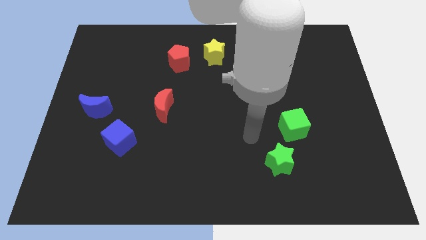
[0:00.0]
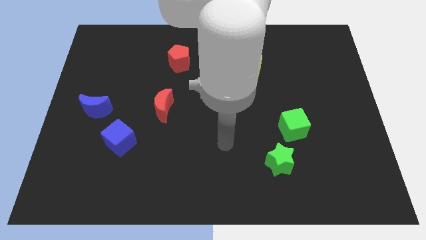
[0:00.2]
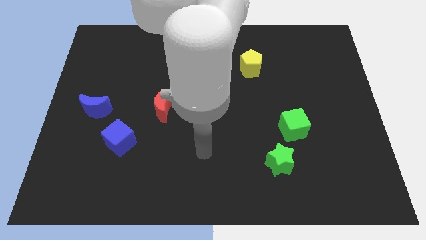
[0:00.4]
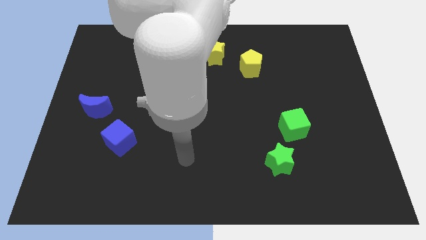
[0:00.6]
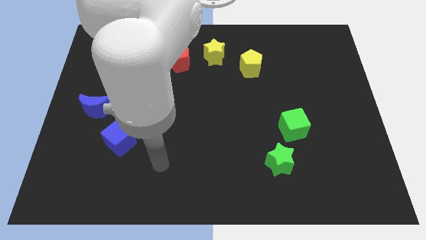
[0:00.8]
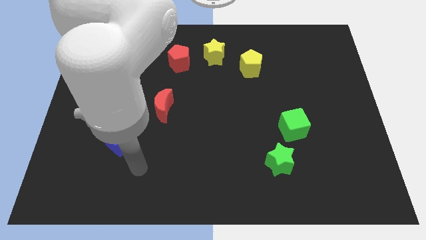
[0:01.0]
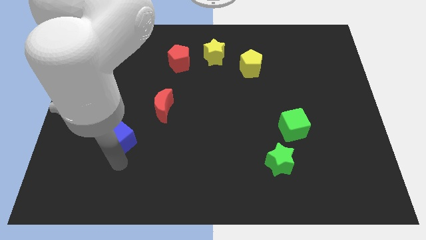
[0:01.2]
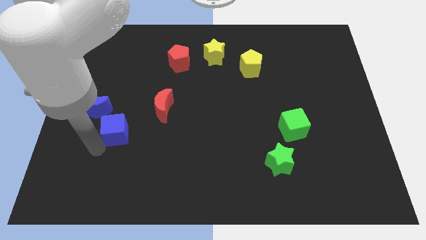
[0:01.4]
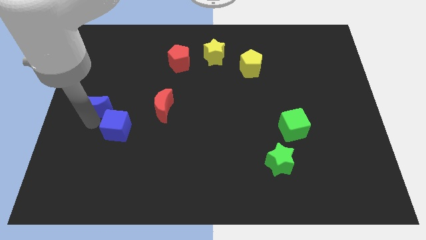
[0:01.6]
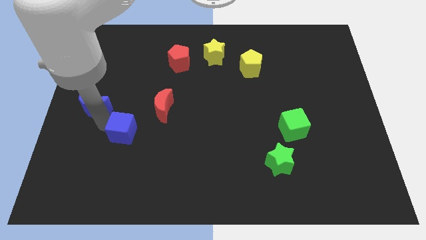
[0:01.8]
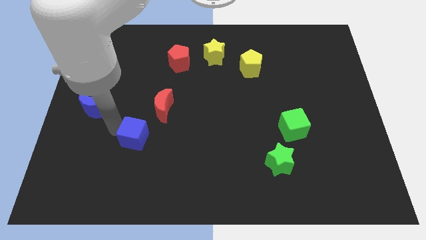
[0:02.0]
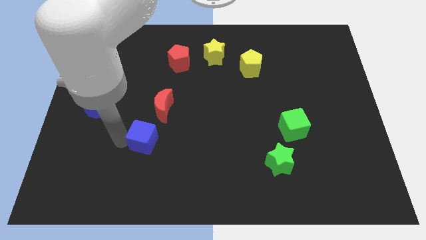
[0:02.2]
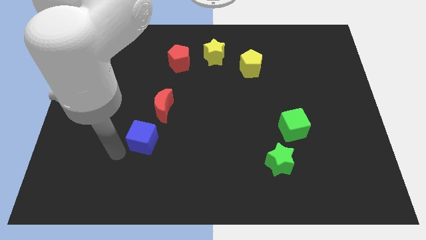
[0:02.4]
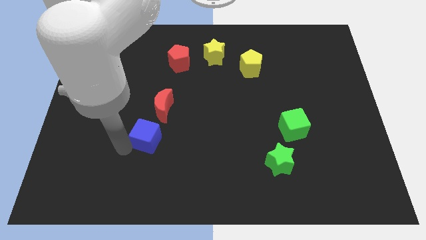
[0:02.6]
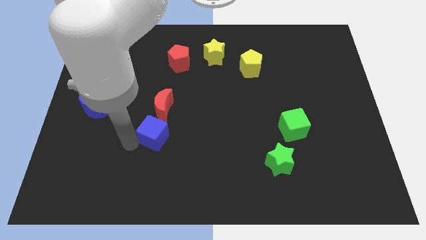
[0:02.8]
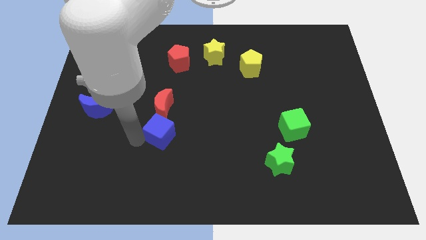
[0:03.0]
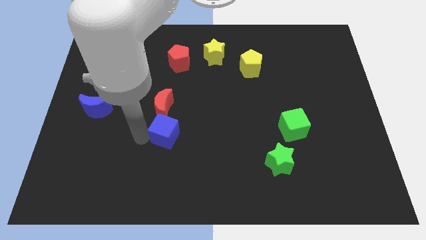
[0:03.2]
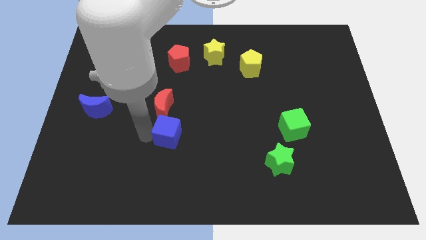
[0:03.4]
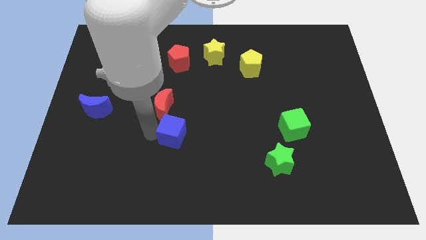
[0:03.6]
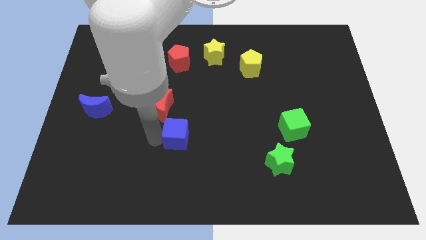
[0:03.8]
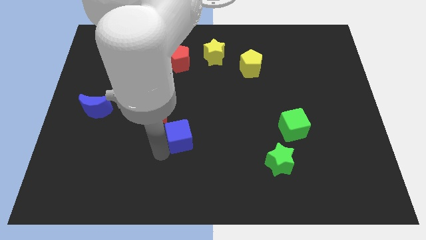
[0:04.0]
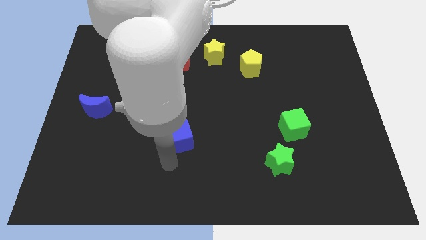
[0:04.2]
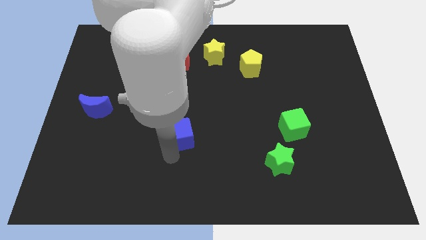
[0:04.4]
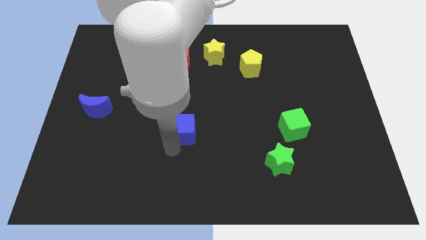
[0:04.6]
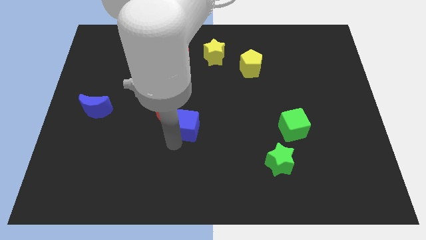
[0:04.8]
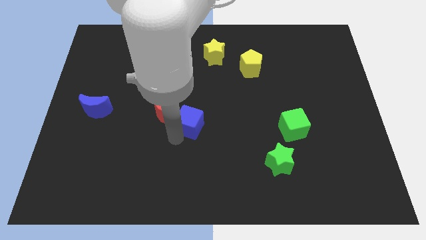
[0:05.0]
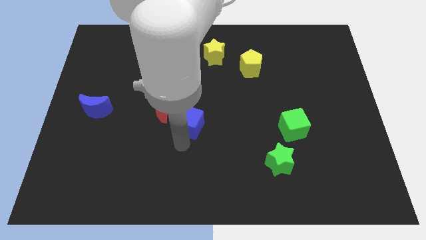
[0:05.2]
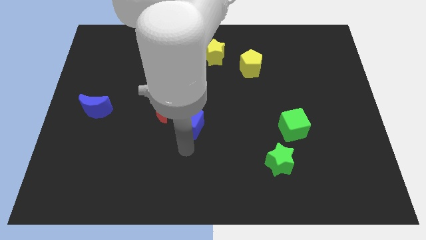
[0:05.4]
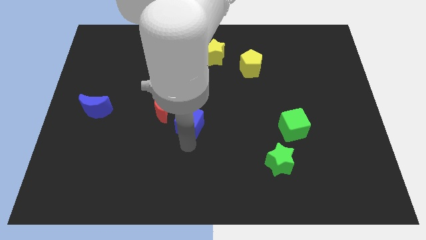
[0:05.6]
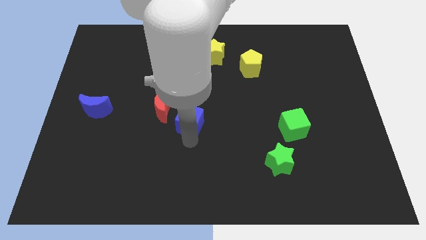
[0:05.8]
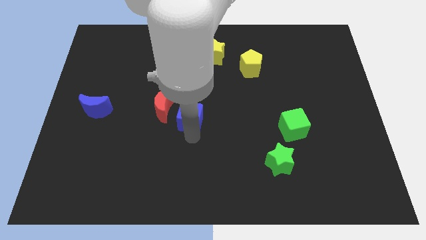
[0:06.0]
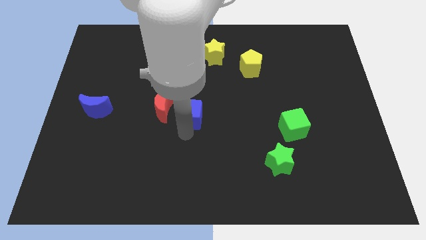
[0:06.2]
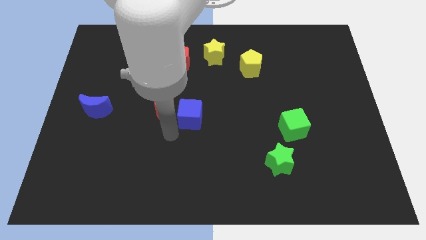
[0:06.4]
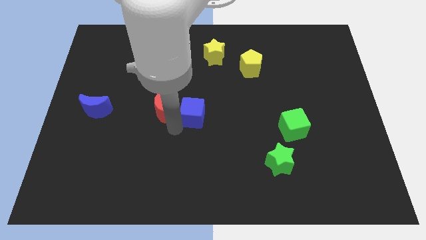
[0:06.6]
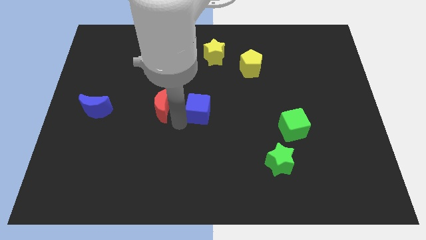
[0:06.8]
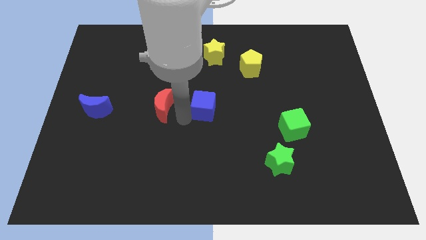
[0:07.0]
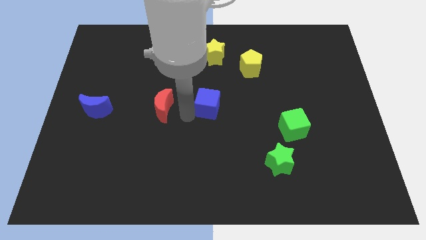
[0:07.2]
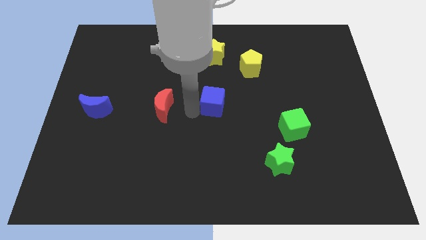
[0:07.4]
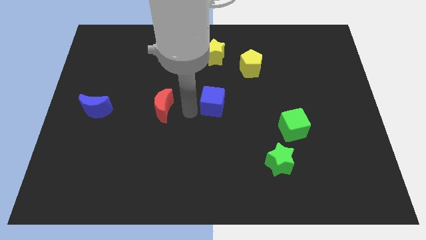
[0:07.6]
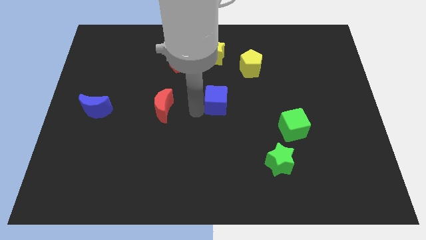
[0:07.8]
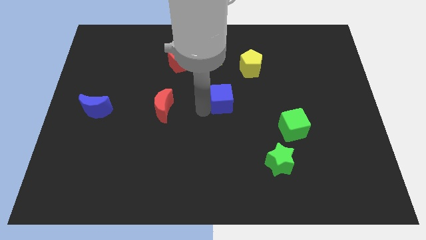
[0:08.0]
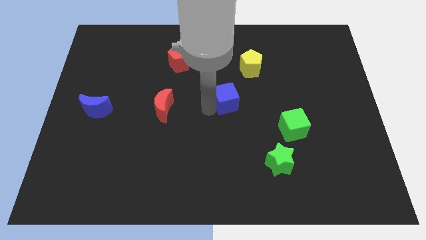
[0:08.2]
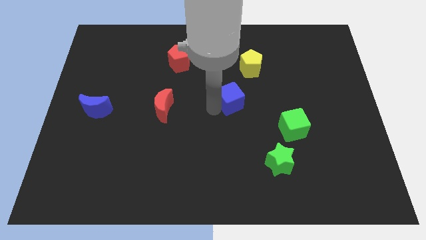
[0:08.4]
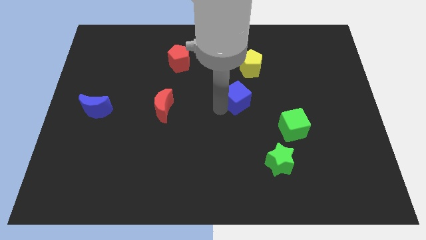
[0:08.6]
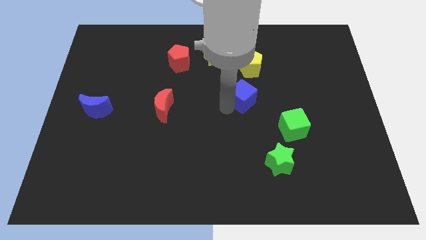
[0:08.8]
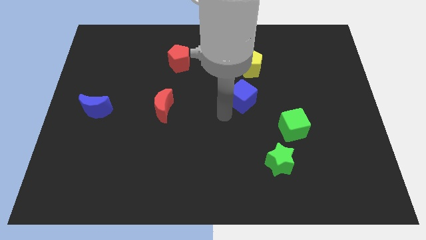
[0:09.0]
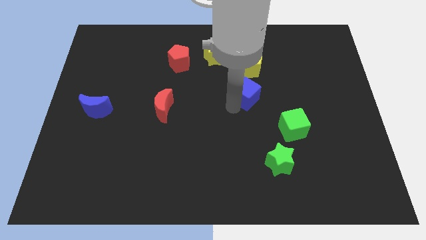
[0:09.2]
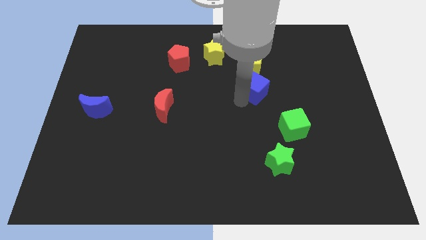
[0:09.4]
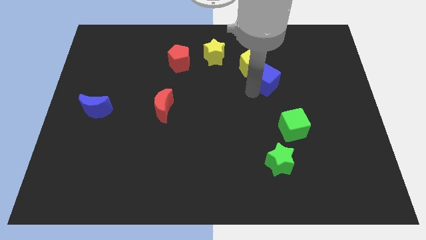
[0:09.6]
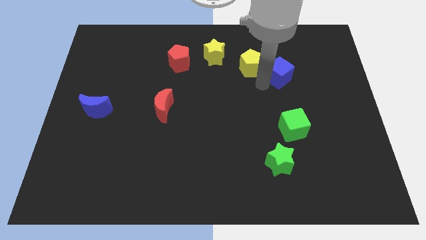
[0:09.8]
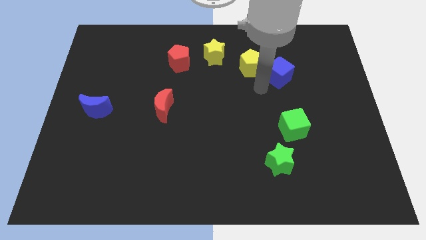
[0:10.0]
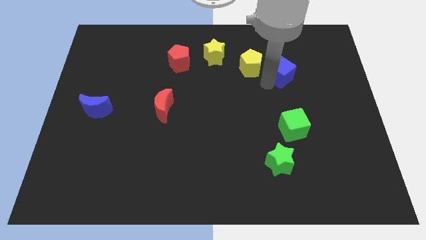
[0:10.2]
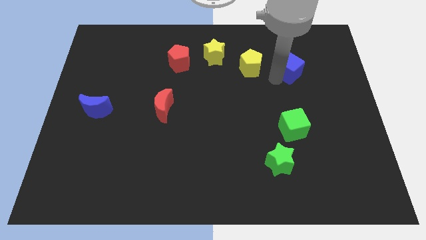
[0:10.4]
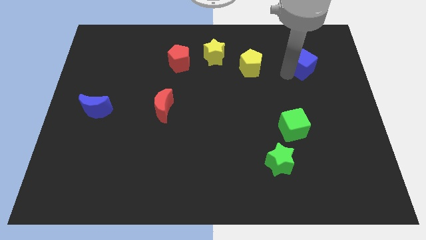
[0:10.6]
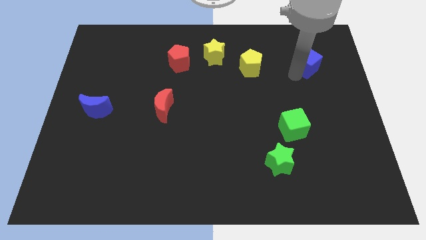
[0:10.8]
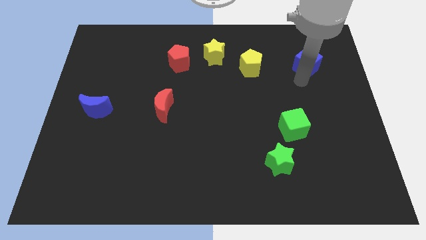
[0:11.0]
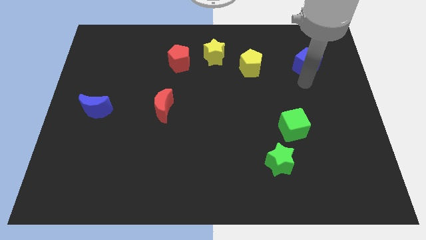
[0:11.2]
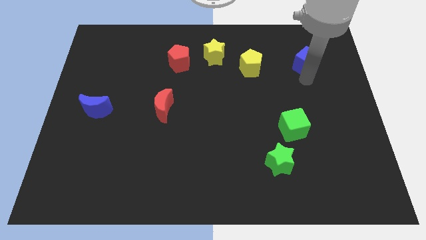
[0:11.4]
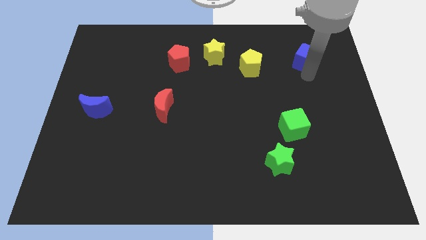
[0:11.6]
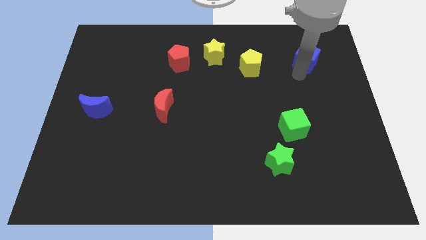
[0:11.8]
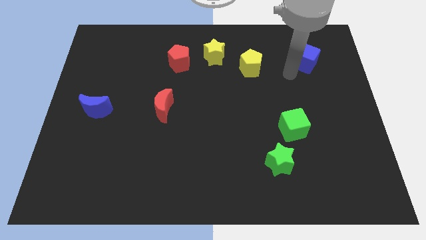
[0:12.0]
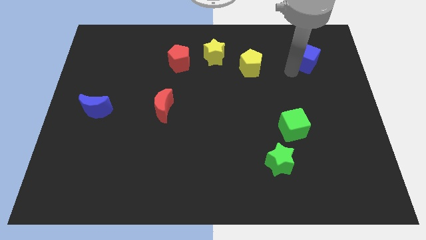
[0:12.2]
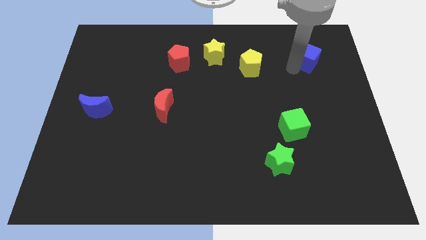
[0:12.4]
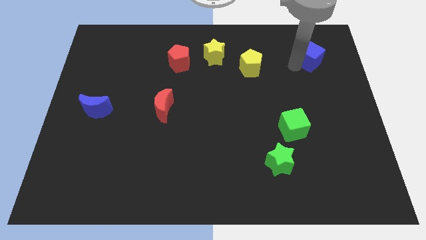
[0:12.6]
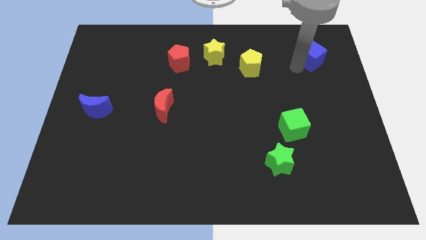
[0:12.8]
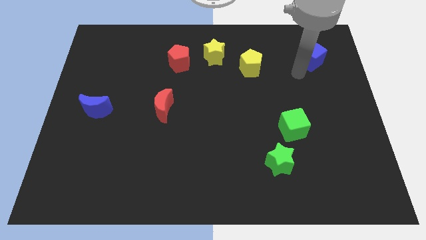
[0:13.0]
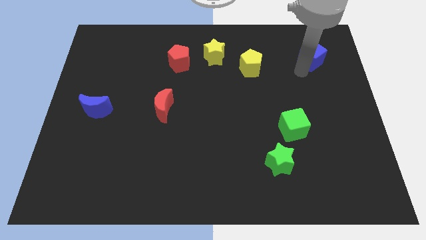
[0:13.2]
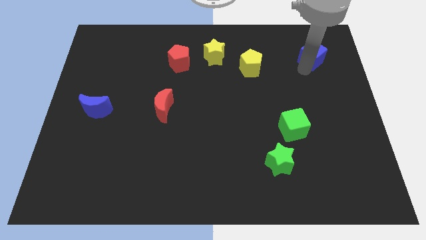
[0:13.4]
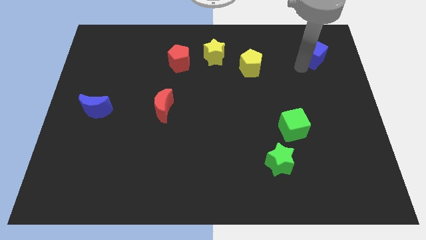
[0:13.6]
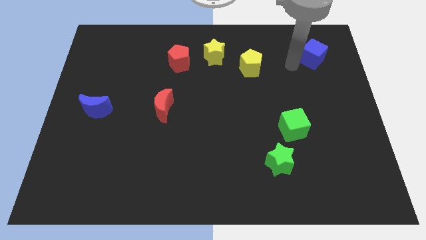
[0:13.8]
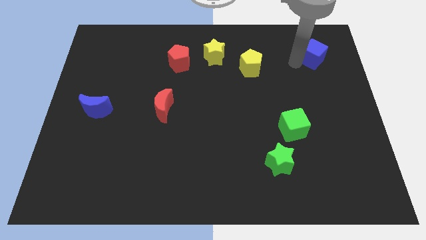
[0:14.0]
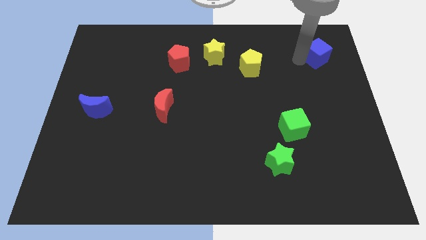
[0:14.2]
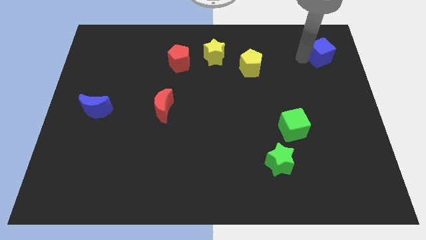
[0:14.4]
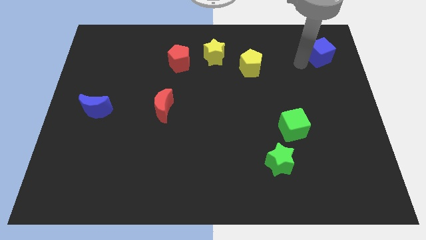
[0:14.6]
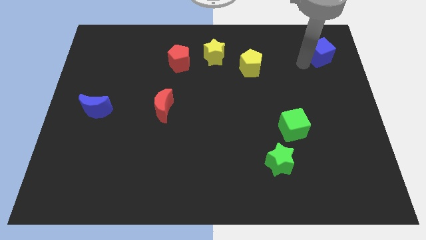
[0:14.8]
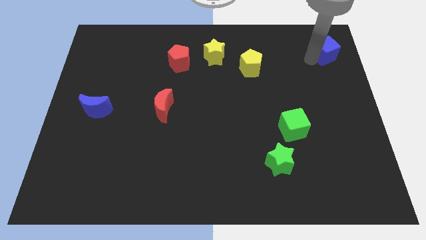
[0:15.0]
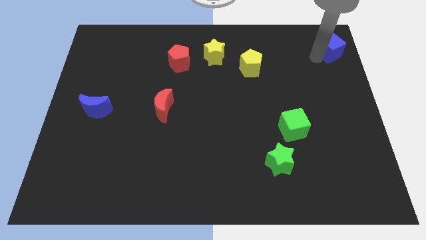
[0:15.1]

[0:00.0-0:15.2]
push the blue cube to the top right
